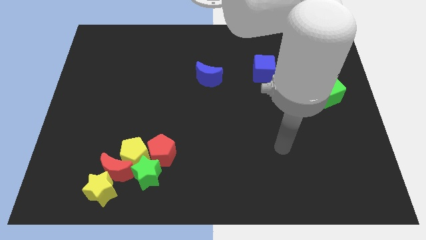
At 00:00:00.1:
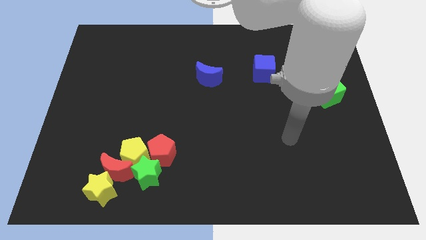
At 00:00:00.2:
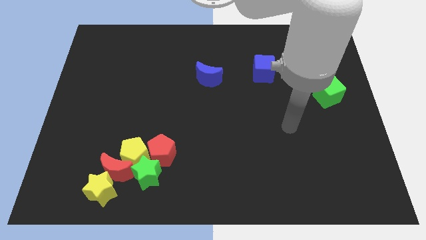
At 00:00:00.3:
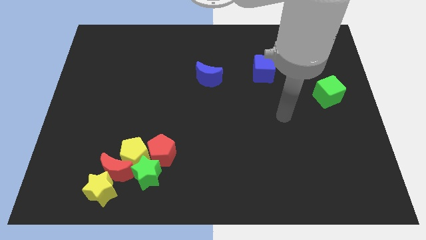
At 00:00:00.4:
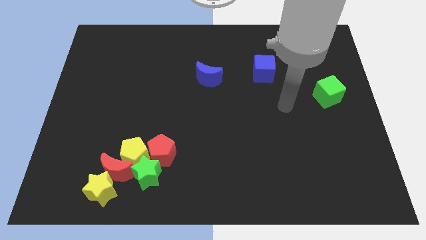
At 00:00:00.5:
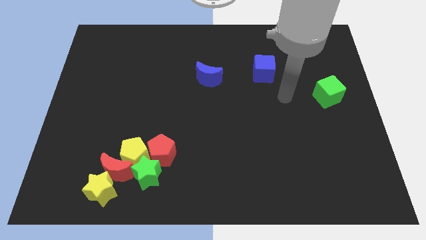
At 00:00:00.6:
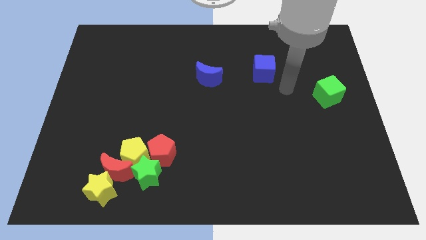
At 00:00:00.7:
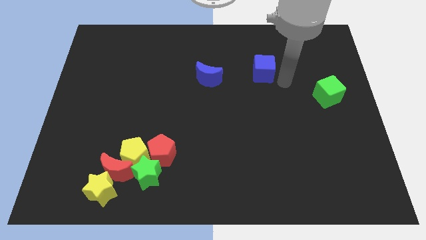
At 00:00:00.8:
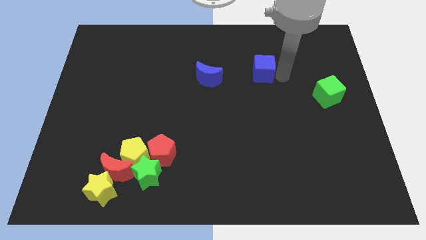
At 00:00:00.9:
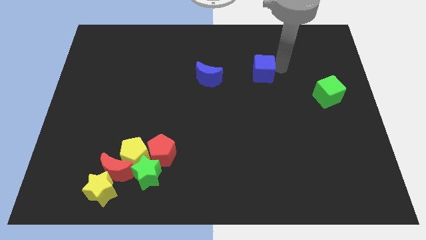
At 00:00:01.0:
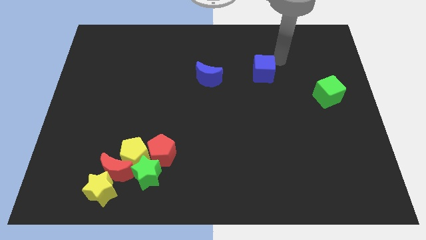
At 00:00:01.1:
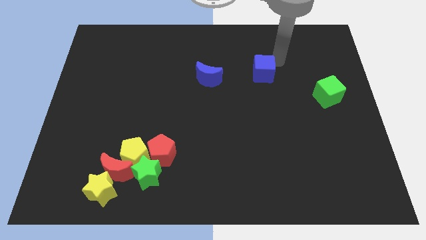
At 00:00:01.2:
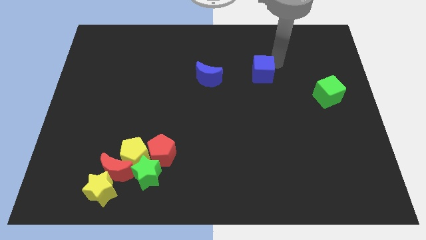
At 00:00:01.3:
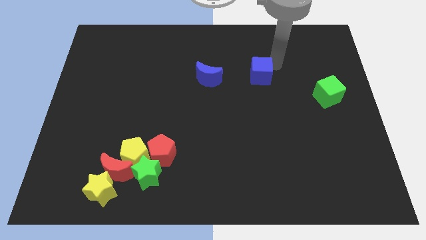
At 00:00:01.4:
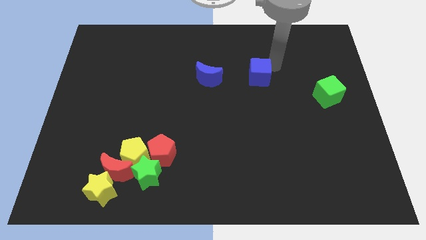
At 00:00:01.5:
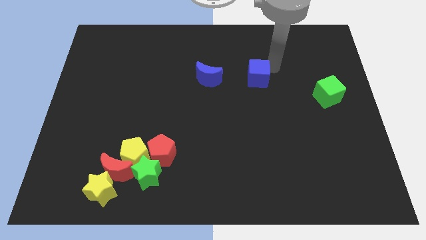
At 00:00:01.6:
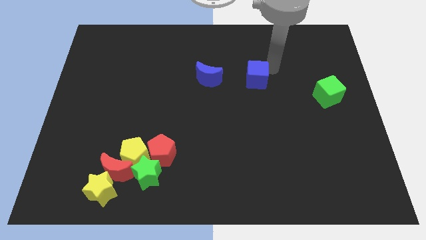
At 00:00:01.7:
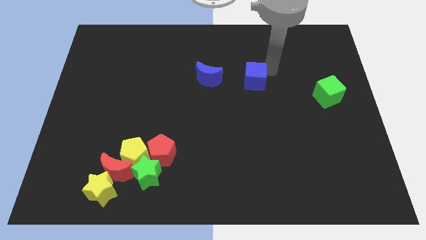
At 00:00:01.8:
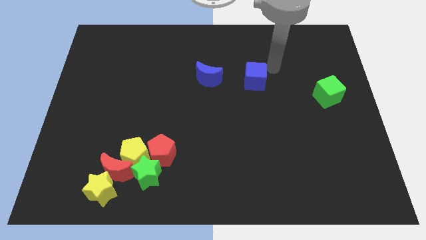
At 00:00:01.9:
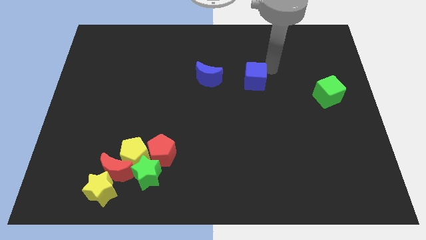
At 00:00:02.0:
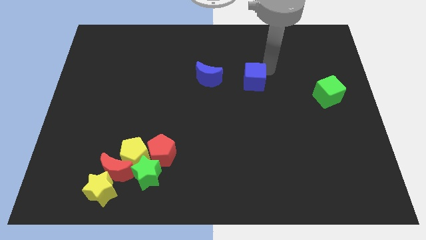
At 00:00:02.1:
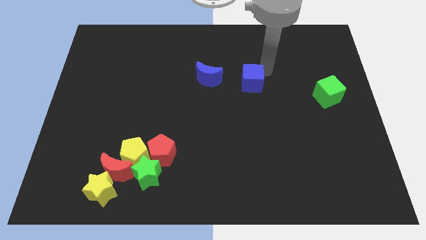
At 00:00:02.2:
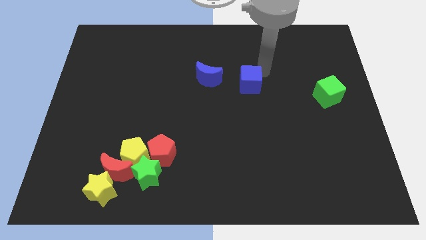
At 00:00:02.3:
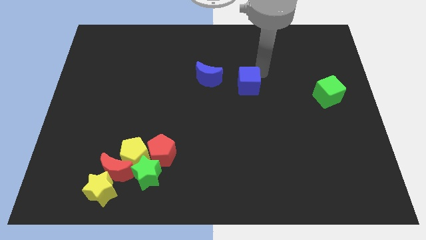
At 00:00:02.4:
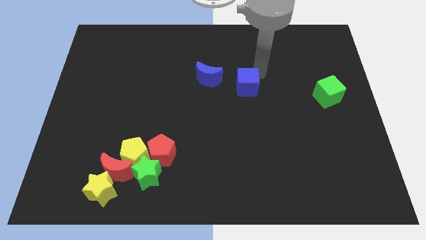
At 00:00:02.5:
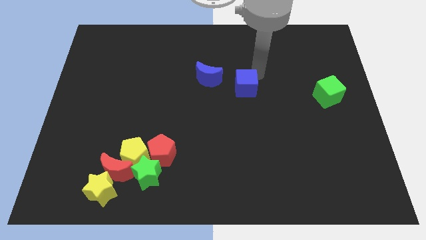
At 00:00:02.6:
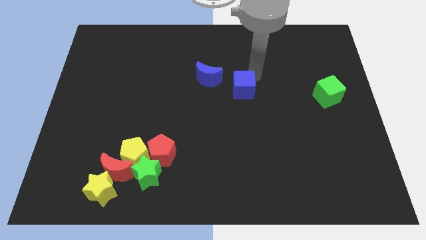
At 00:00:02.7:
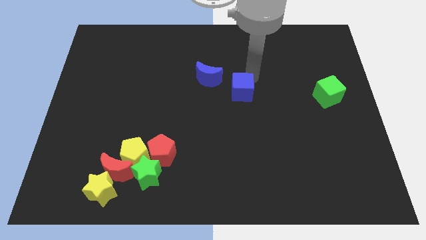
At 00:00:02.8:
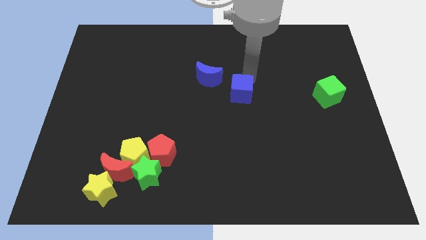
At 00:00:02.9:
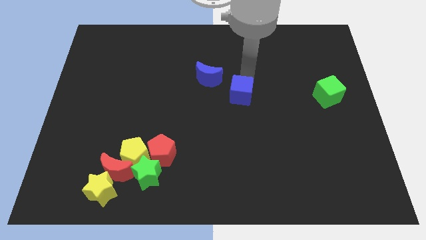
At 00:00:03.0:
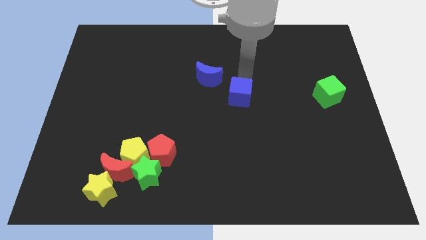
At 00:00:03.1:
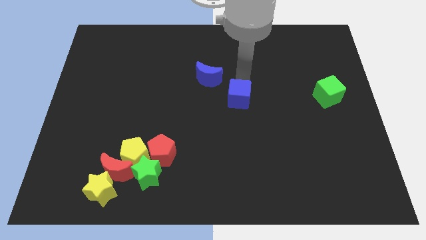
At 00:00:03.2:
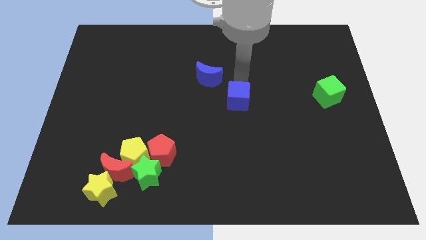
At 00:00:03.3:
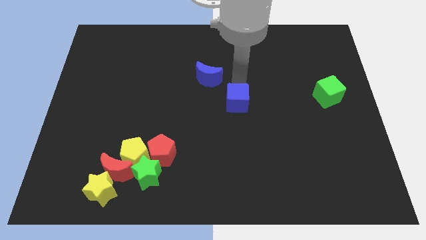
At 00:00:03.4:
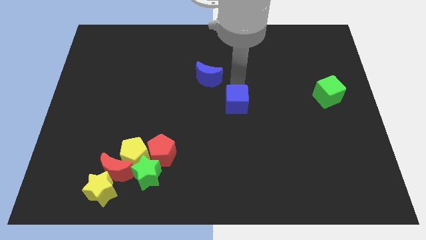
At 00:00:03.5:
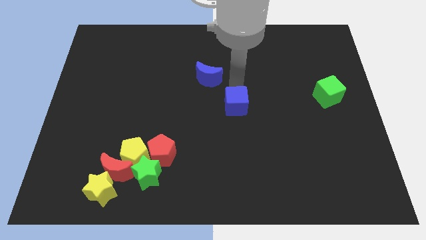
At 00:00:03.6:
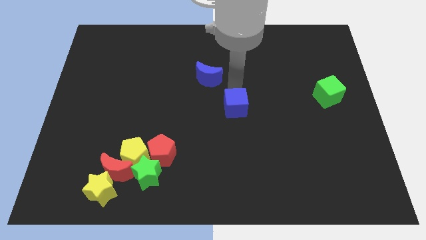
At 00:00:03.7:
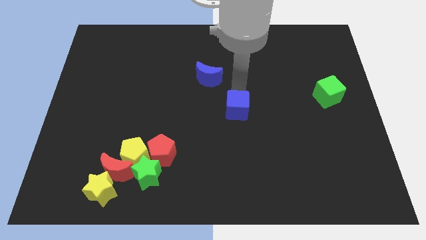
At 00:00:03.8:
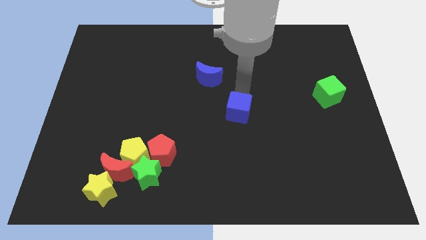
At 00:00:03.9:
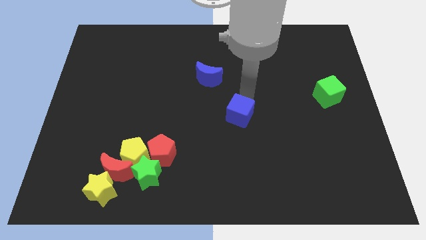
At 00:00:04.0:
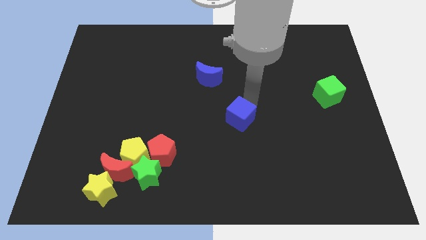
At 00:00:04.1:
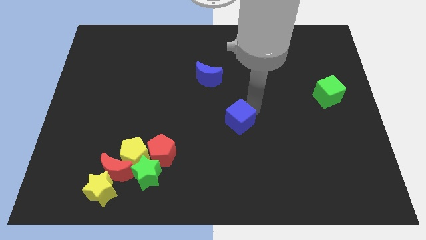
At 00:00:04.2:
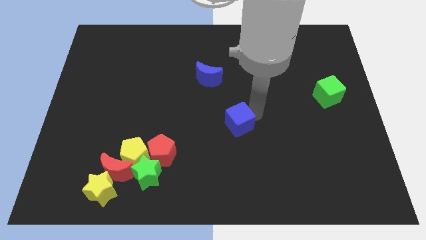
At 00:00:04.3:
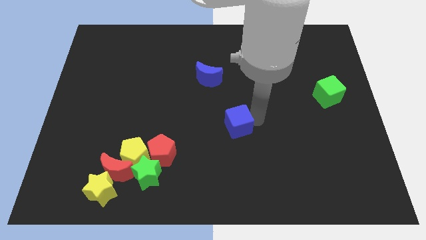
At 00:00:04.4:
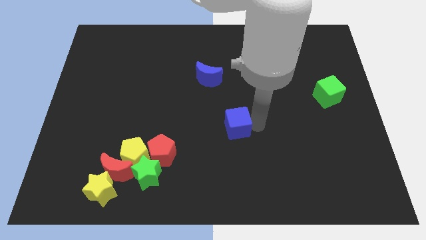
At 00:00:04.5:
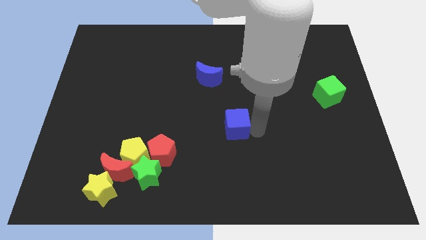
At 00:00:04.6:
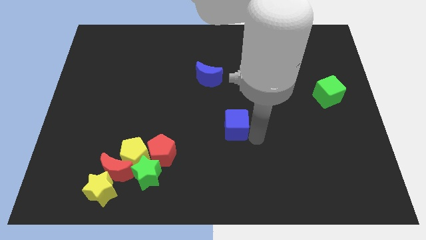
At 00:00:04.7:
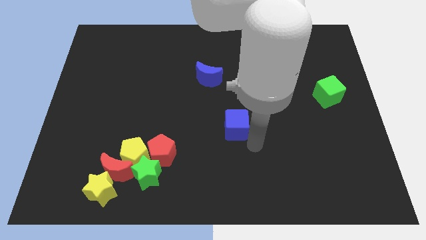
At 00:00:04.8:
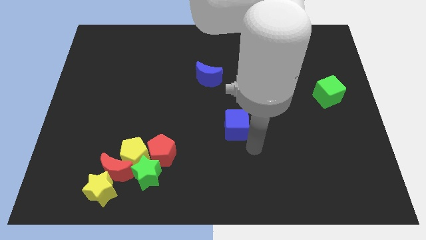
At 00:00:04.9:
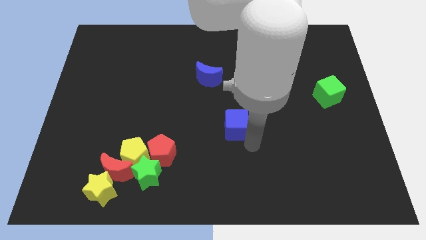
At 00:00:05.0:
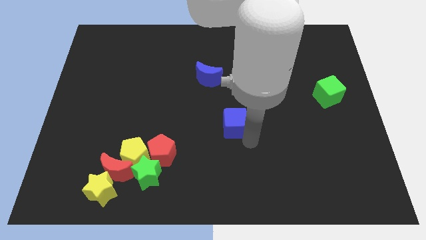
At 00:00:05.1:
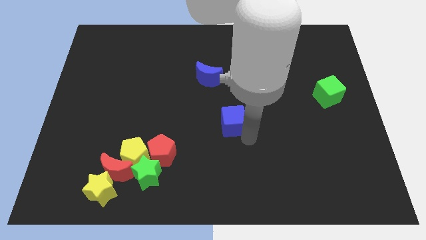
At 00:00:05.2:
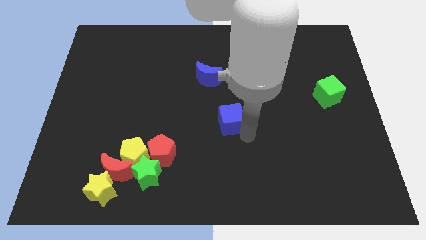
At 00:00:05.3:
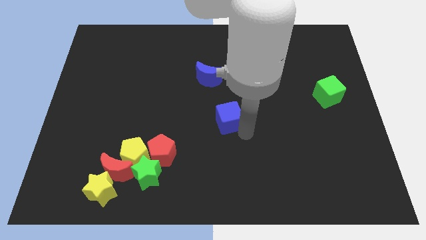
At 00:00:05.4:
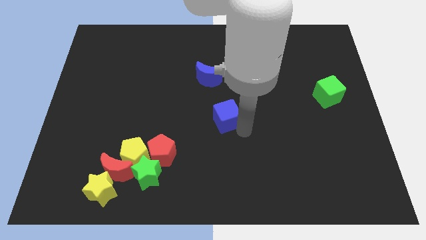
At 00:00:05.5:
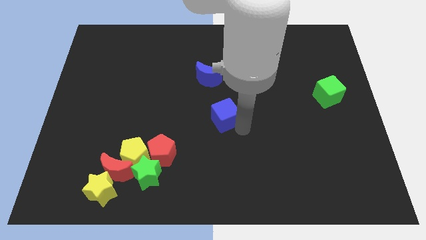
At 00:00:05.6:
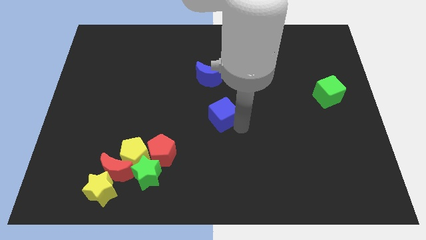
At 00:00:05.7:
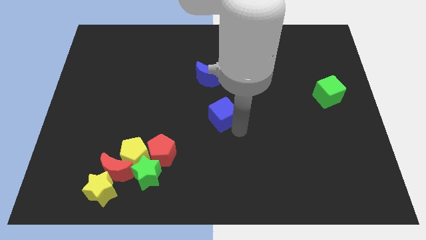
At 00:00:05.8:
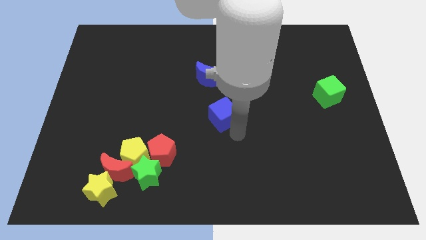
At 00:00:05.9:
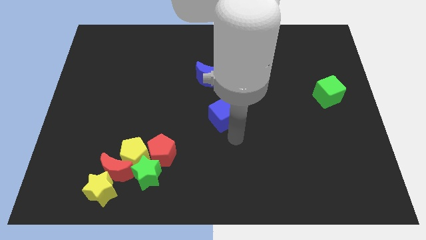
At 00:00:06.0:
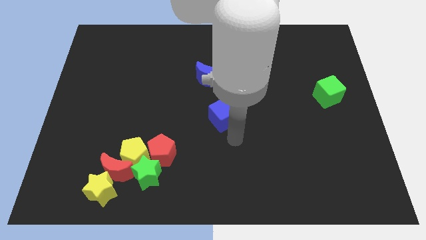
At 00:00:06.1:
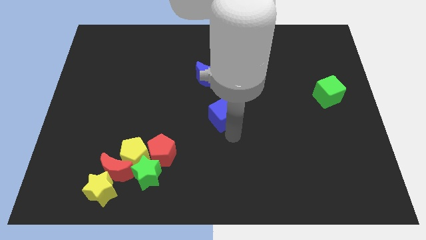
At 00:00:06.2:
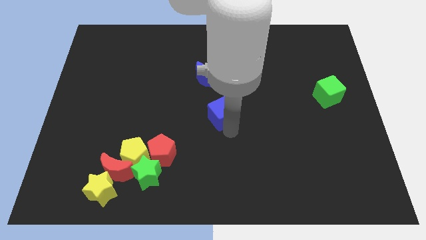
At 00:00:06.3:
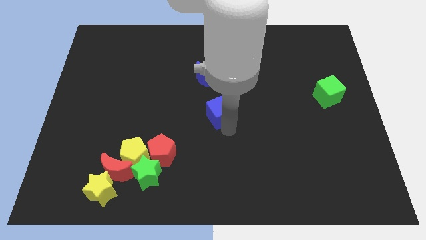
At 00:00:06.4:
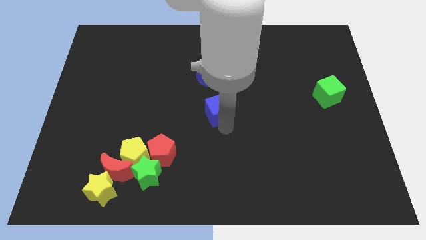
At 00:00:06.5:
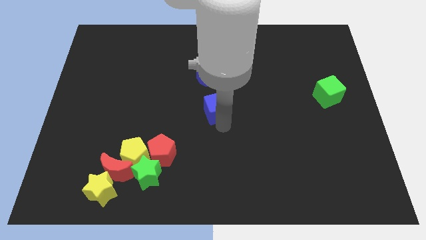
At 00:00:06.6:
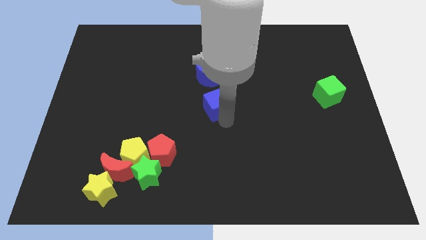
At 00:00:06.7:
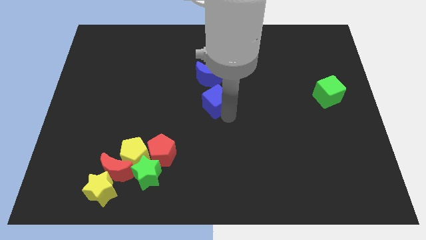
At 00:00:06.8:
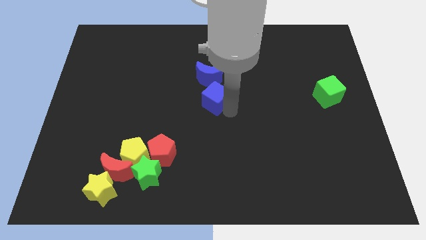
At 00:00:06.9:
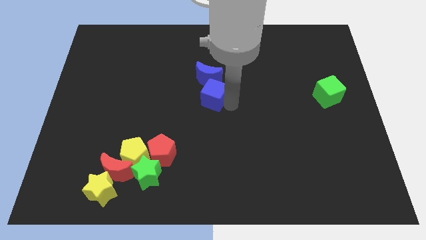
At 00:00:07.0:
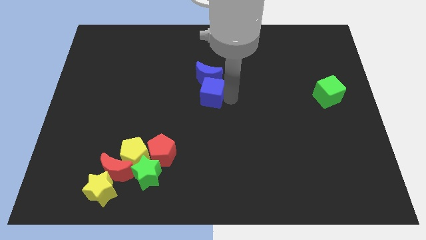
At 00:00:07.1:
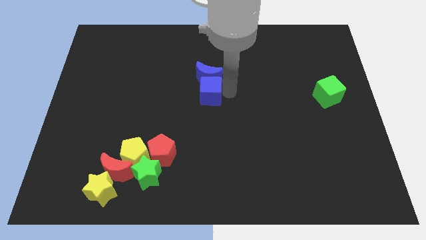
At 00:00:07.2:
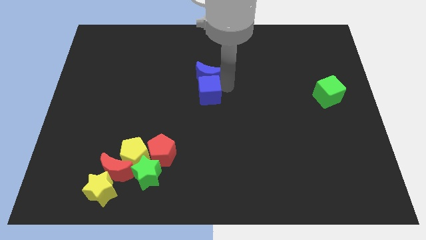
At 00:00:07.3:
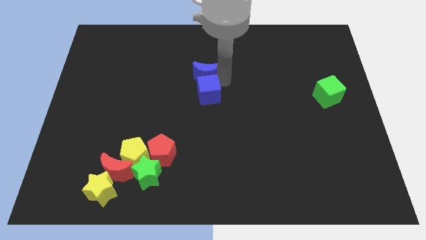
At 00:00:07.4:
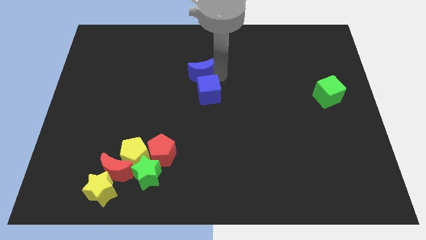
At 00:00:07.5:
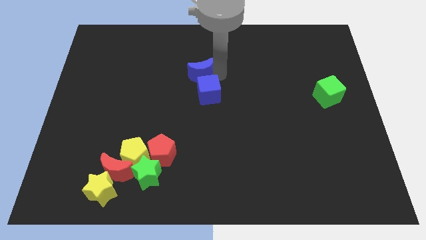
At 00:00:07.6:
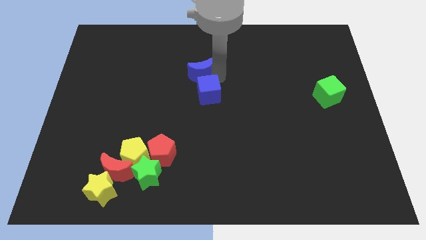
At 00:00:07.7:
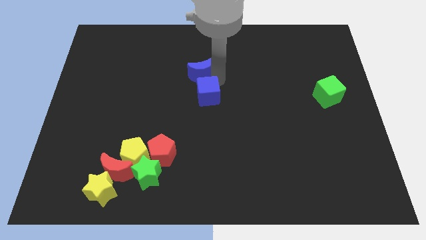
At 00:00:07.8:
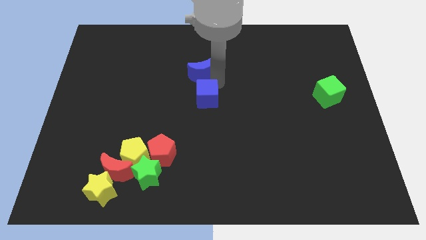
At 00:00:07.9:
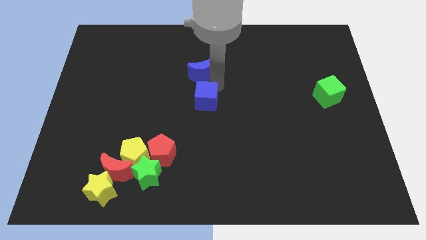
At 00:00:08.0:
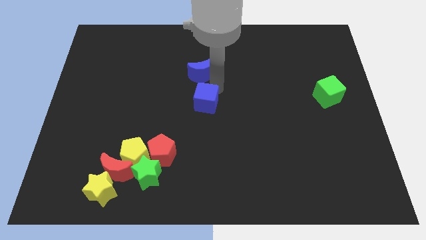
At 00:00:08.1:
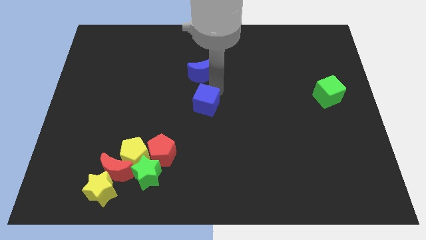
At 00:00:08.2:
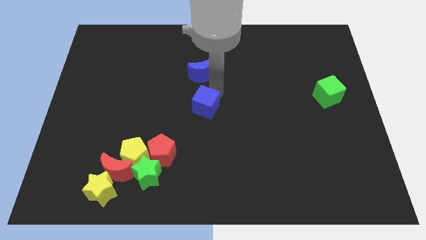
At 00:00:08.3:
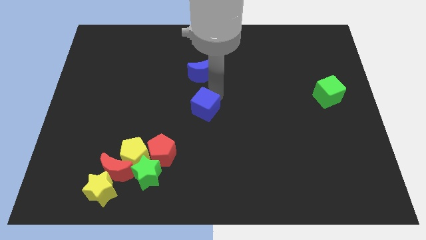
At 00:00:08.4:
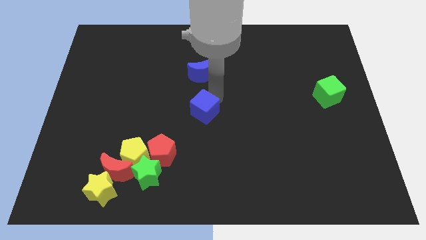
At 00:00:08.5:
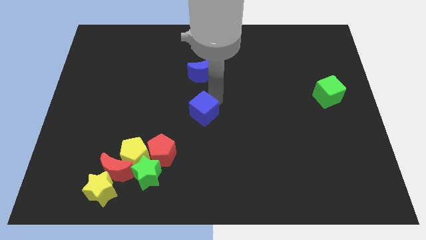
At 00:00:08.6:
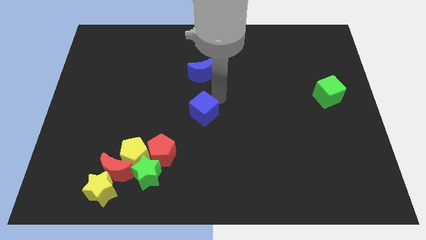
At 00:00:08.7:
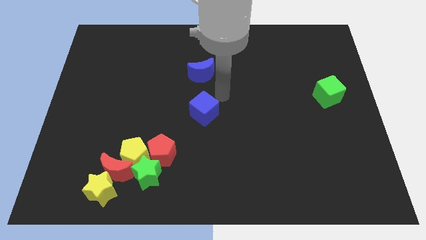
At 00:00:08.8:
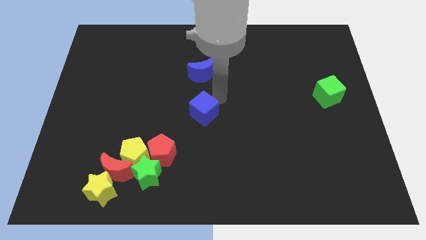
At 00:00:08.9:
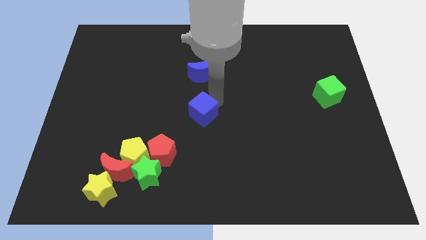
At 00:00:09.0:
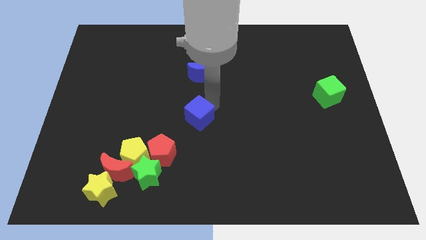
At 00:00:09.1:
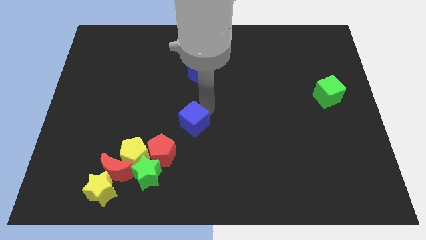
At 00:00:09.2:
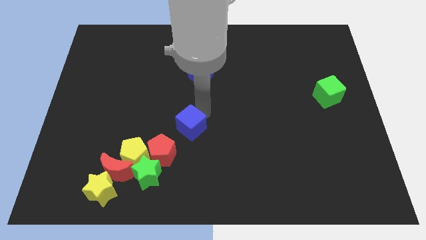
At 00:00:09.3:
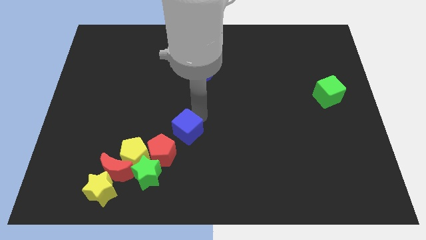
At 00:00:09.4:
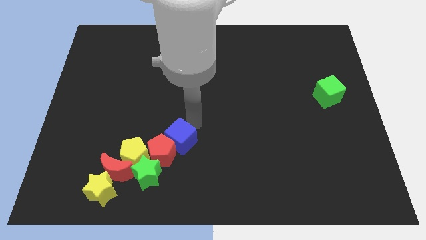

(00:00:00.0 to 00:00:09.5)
slide the blue cube close to the red pentagon
